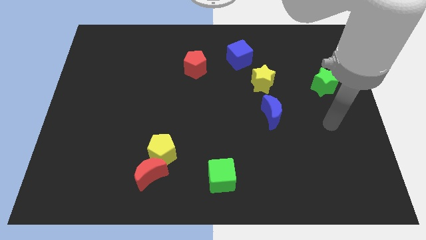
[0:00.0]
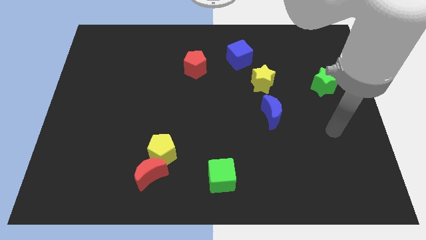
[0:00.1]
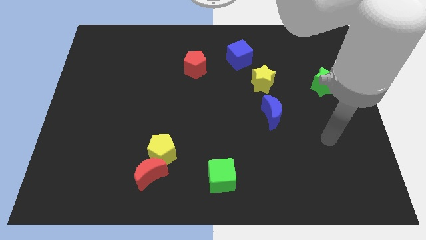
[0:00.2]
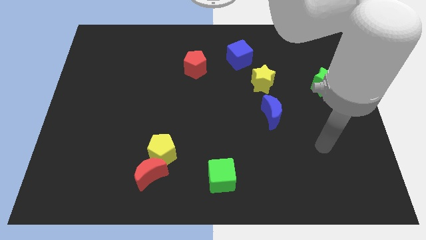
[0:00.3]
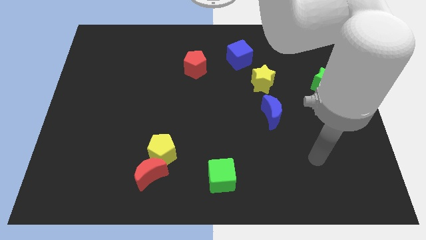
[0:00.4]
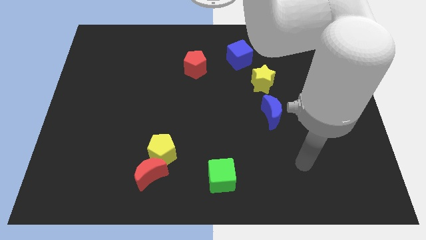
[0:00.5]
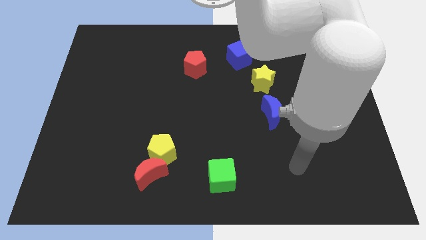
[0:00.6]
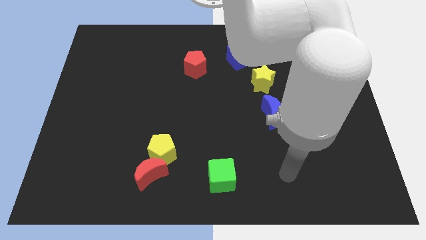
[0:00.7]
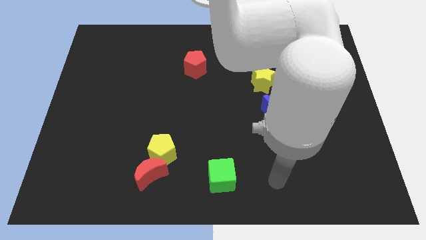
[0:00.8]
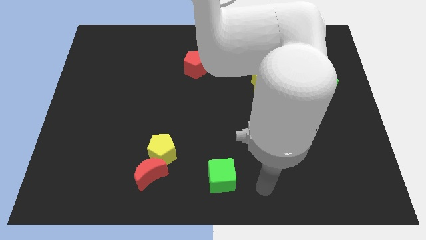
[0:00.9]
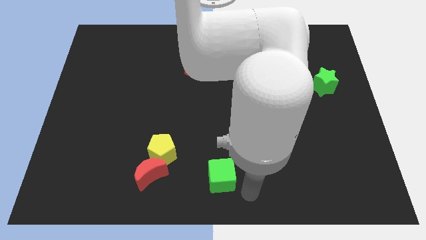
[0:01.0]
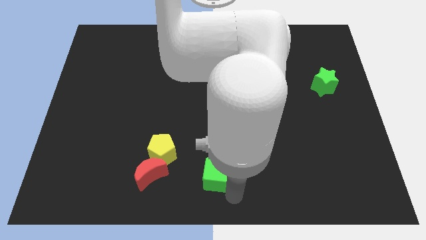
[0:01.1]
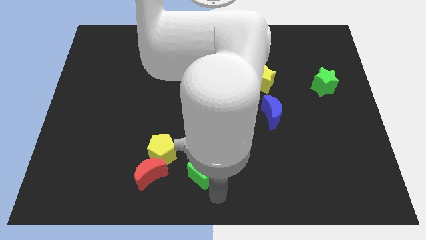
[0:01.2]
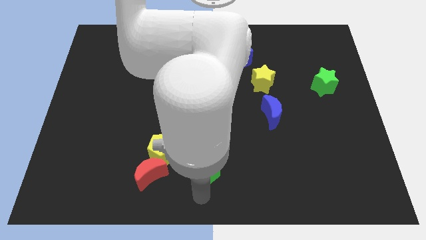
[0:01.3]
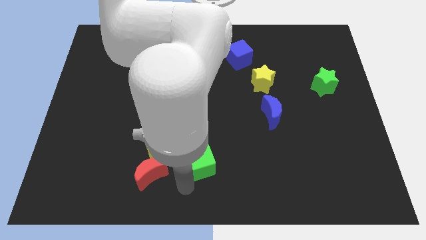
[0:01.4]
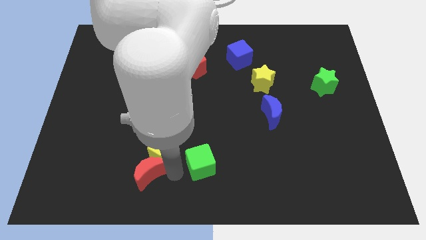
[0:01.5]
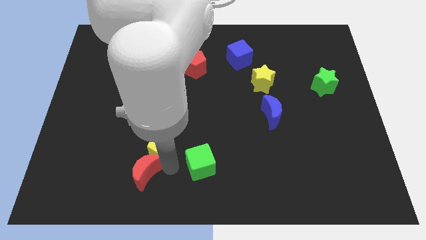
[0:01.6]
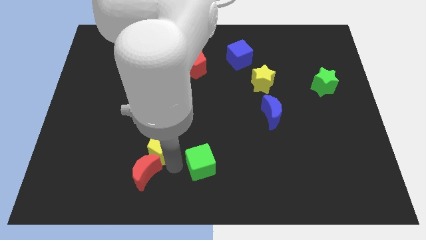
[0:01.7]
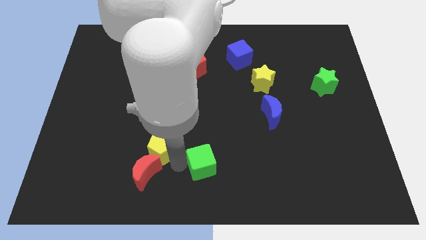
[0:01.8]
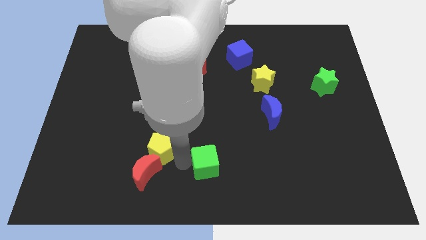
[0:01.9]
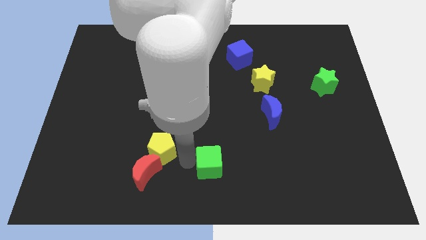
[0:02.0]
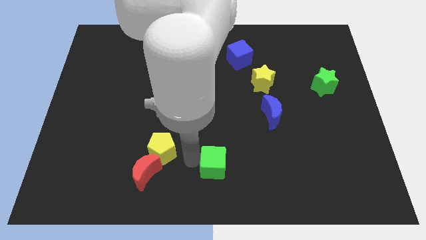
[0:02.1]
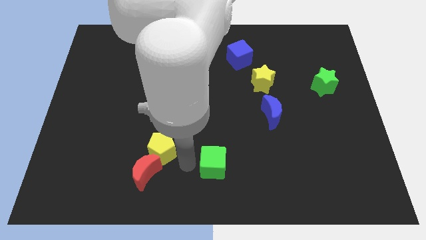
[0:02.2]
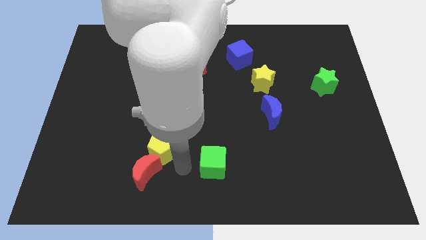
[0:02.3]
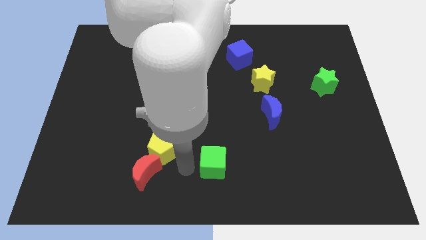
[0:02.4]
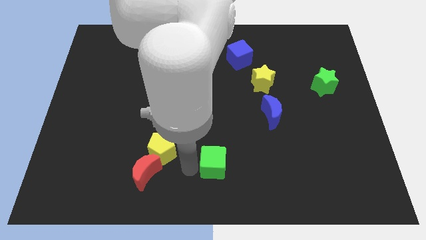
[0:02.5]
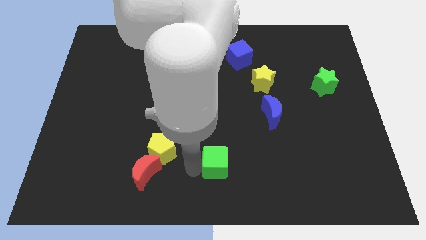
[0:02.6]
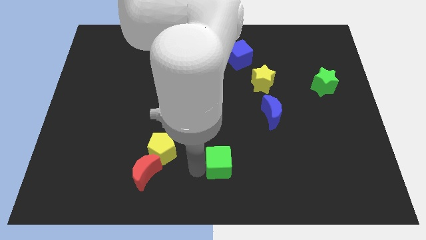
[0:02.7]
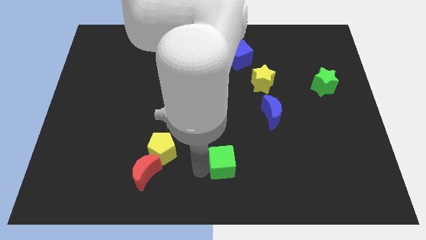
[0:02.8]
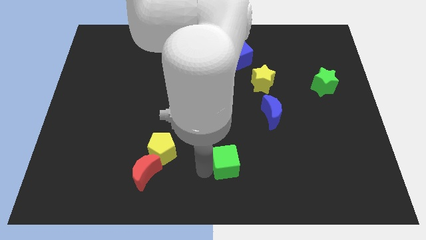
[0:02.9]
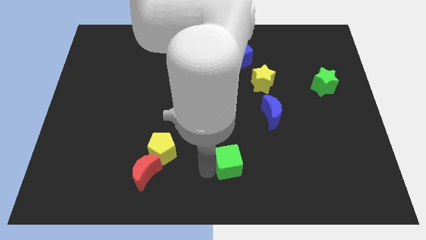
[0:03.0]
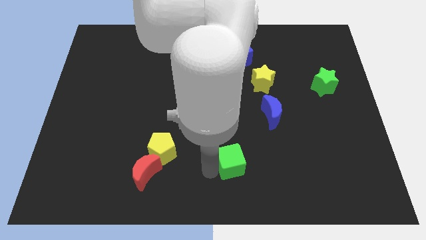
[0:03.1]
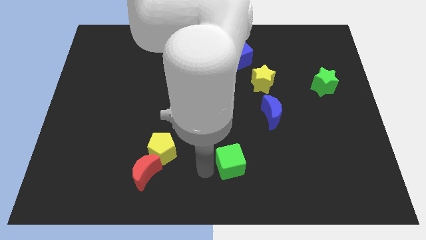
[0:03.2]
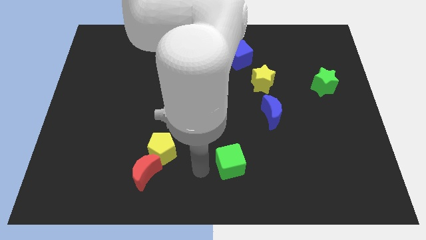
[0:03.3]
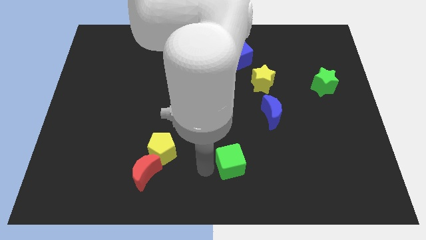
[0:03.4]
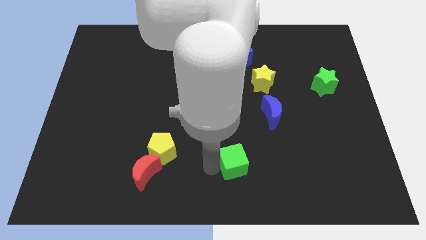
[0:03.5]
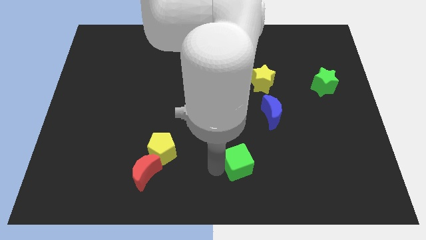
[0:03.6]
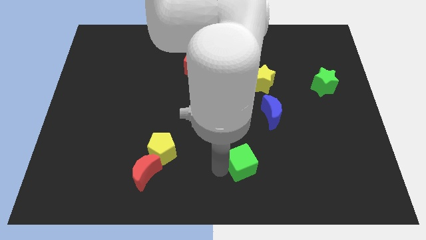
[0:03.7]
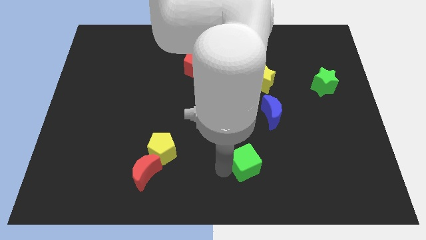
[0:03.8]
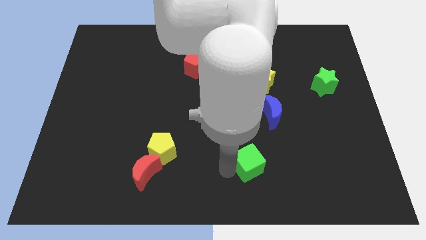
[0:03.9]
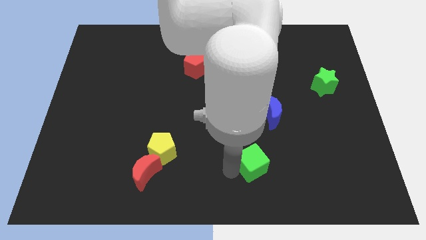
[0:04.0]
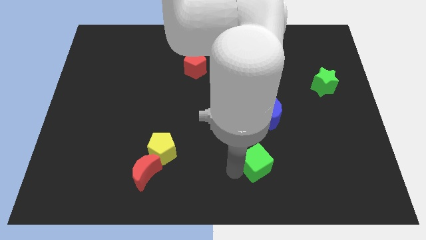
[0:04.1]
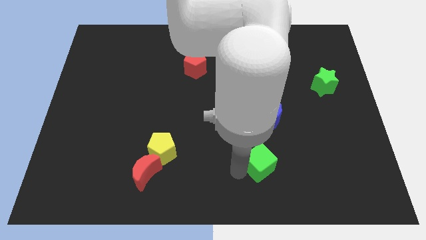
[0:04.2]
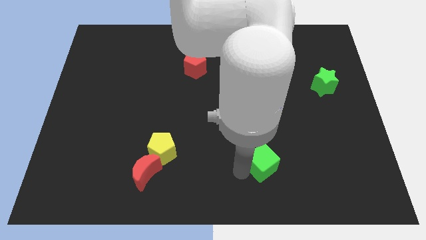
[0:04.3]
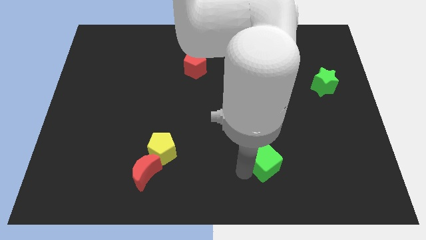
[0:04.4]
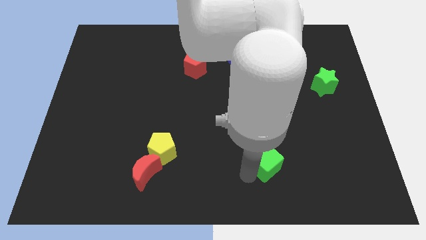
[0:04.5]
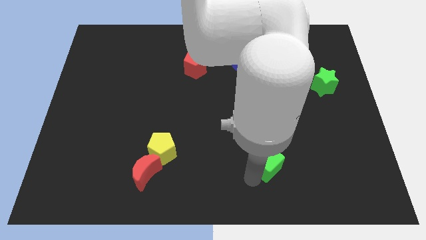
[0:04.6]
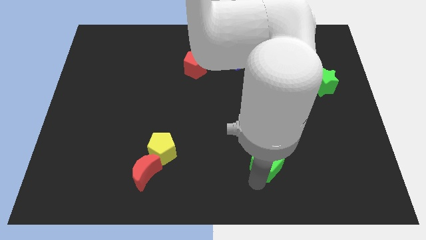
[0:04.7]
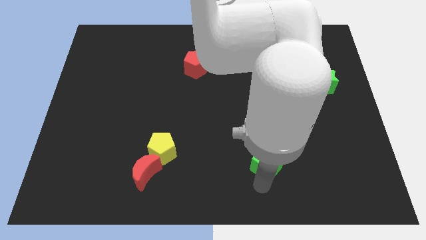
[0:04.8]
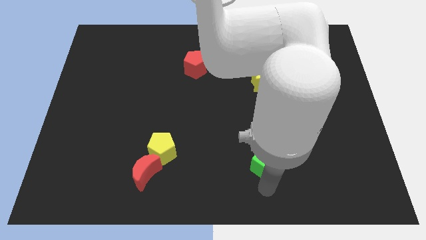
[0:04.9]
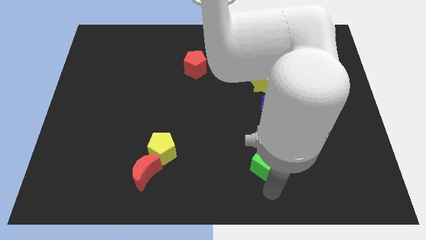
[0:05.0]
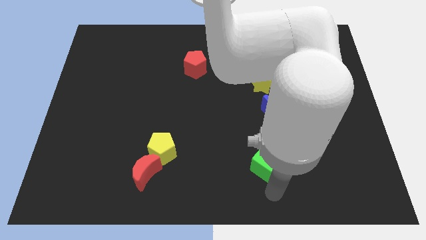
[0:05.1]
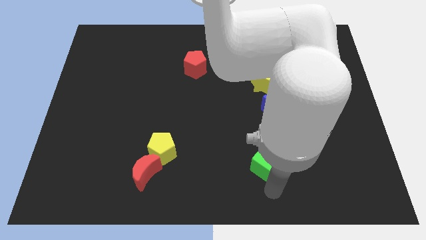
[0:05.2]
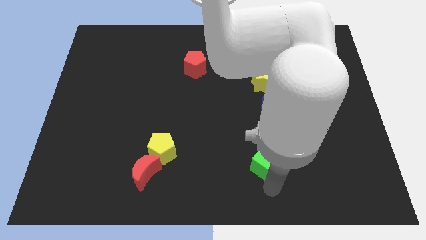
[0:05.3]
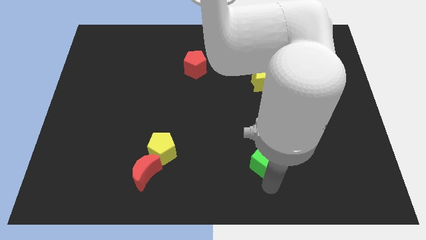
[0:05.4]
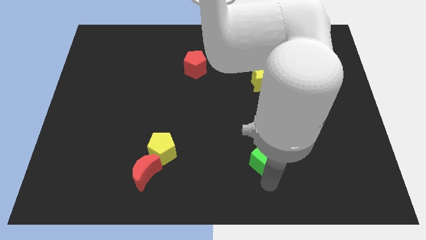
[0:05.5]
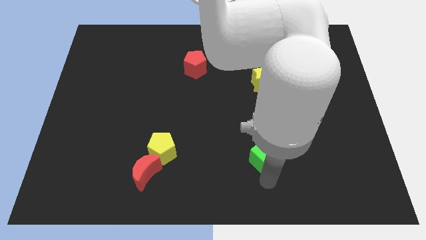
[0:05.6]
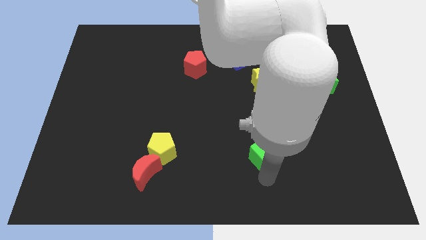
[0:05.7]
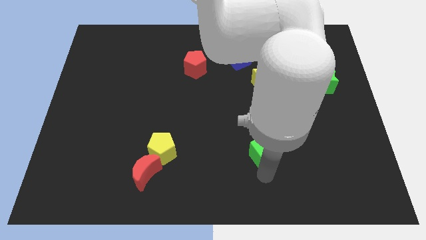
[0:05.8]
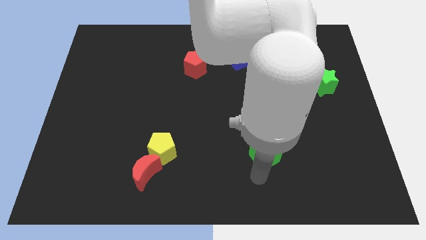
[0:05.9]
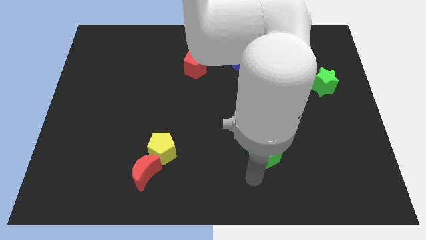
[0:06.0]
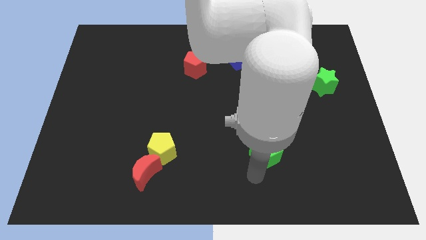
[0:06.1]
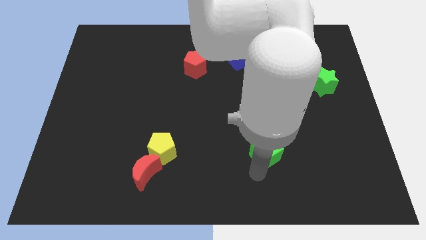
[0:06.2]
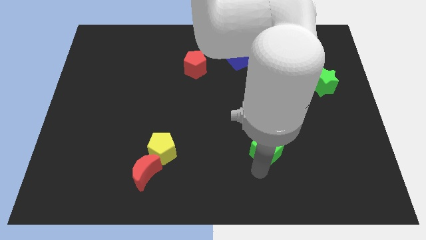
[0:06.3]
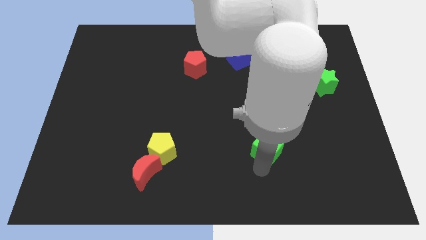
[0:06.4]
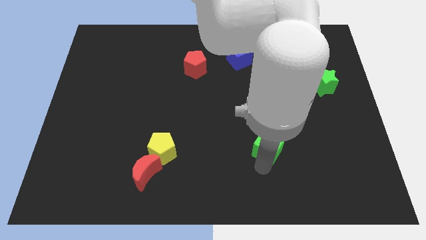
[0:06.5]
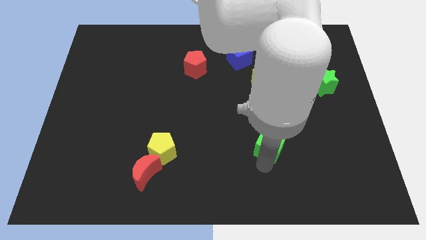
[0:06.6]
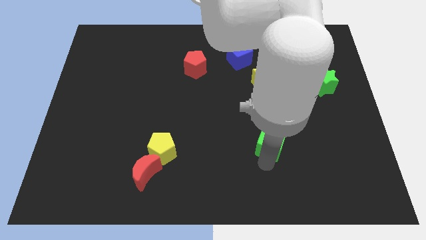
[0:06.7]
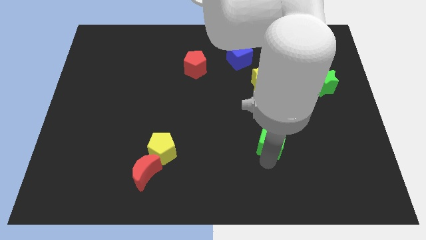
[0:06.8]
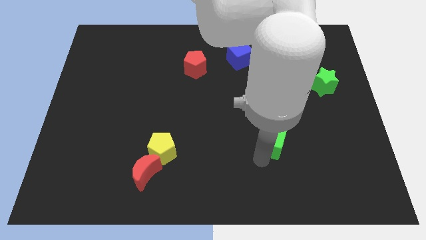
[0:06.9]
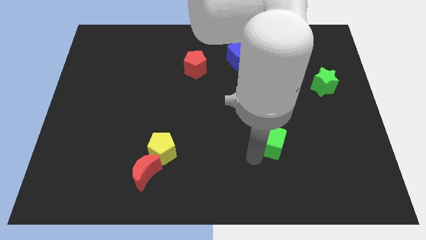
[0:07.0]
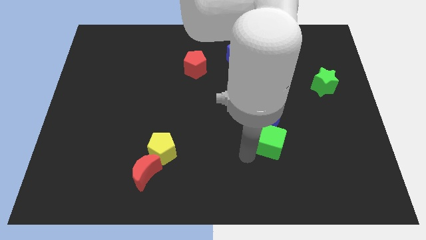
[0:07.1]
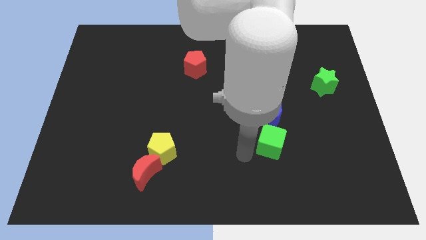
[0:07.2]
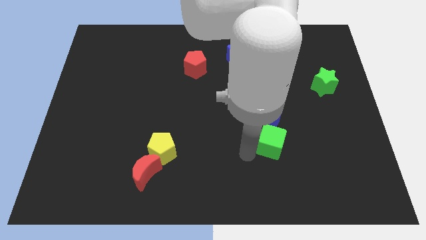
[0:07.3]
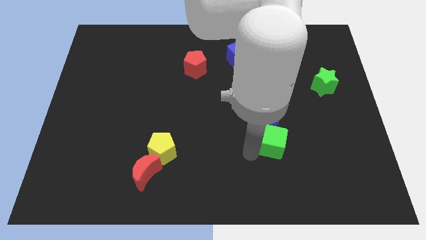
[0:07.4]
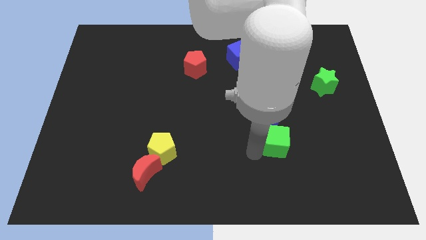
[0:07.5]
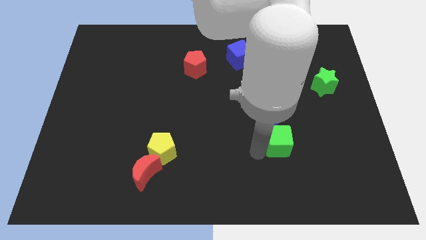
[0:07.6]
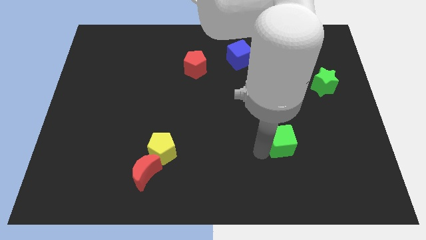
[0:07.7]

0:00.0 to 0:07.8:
slide the green cube to the bottom right side of the blue moon
